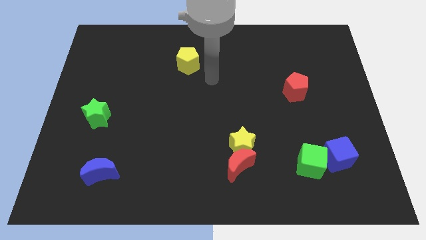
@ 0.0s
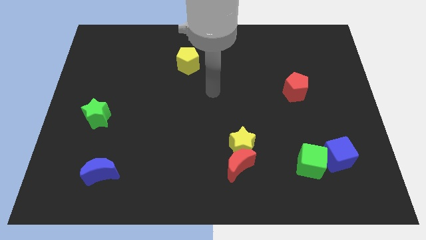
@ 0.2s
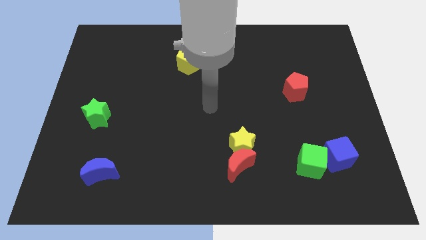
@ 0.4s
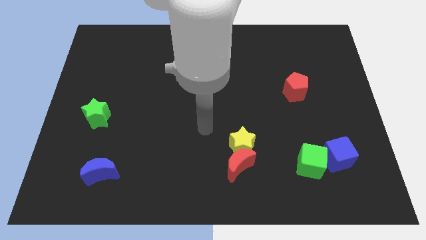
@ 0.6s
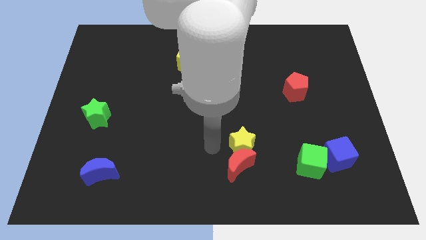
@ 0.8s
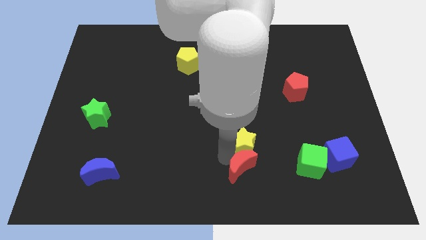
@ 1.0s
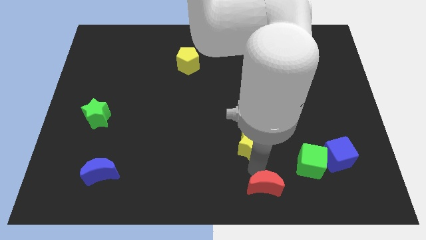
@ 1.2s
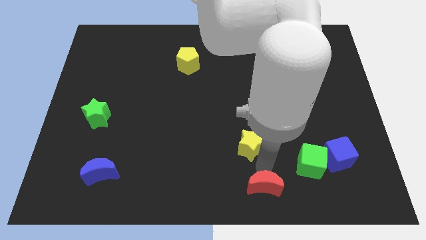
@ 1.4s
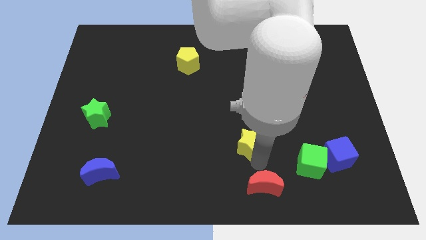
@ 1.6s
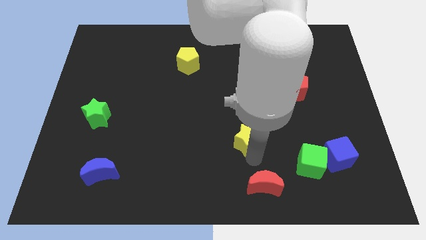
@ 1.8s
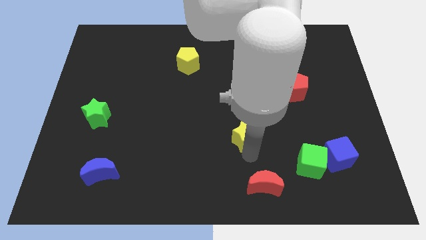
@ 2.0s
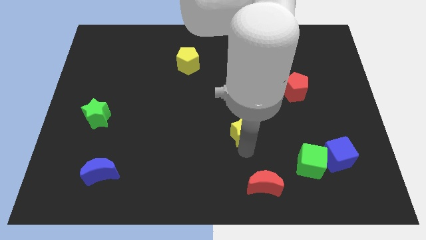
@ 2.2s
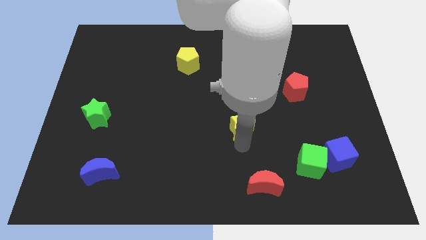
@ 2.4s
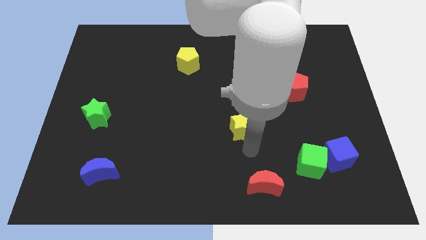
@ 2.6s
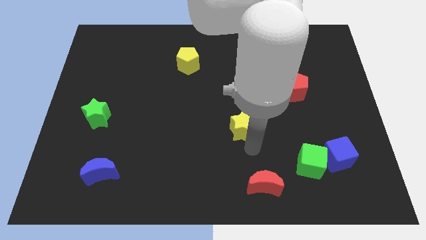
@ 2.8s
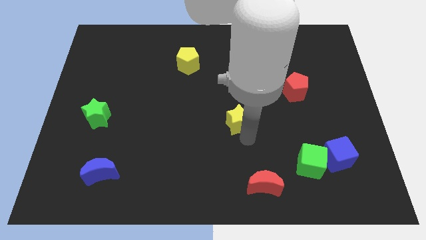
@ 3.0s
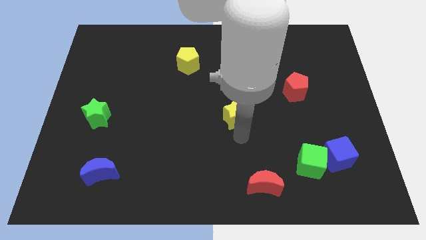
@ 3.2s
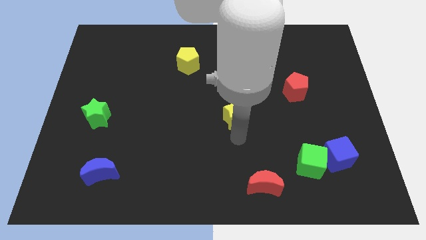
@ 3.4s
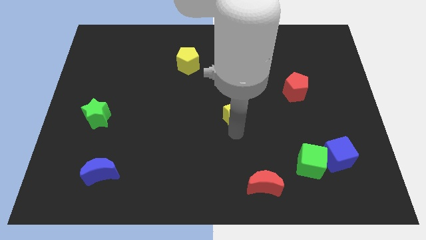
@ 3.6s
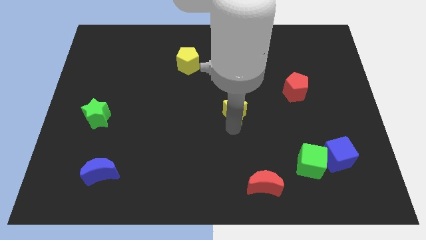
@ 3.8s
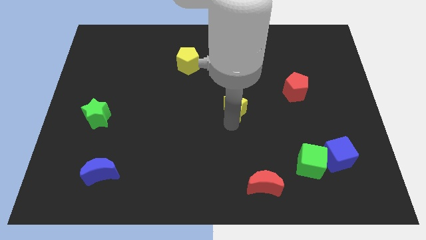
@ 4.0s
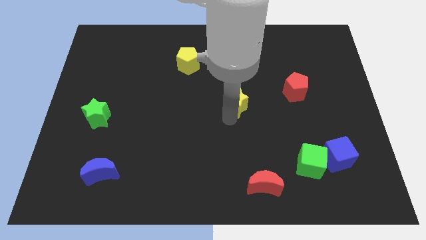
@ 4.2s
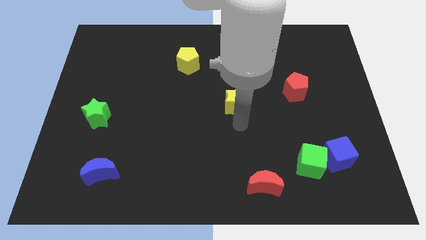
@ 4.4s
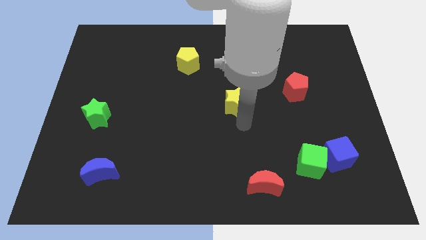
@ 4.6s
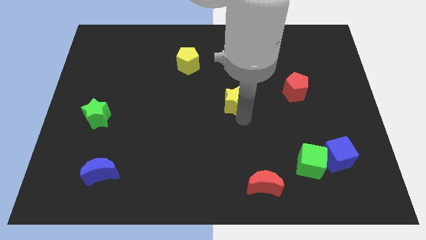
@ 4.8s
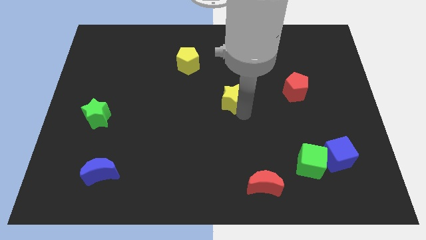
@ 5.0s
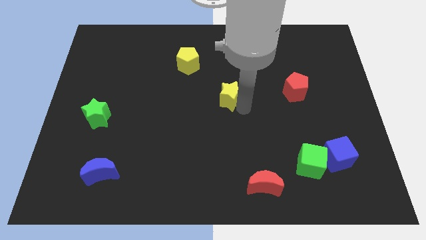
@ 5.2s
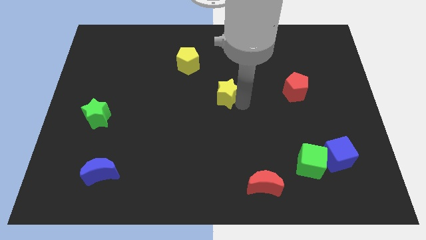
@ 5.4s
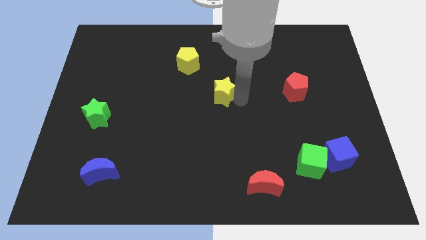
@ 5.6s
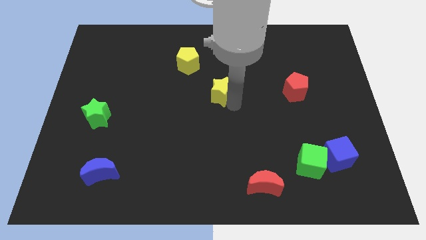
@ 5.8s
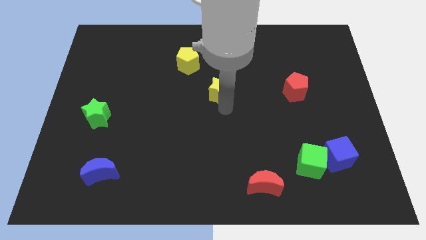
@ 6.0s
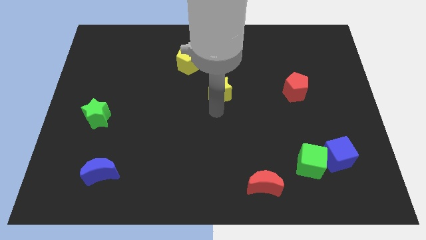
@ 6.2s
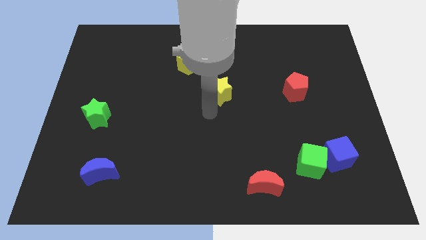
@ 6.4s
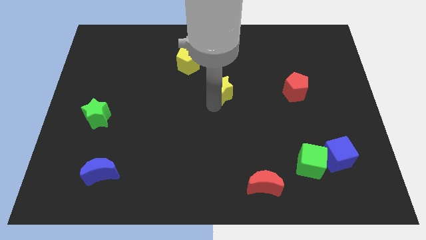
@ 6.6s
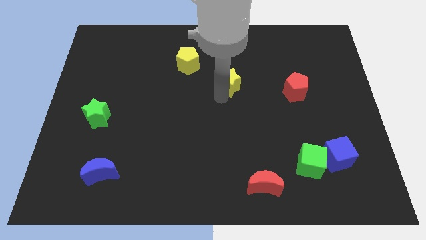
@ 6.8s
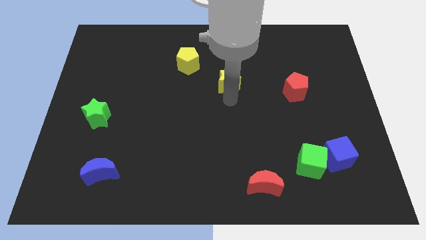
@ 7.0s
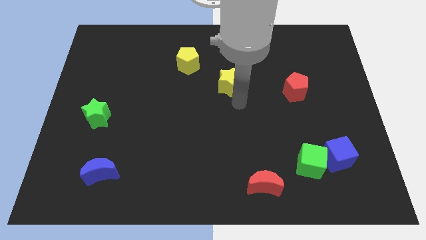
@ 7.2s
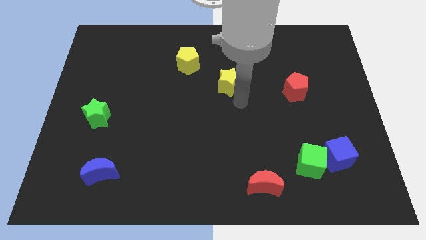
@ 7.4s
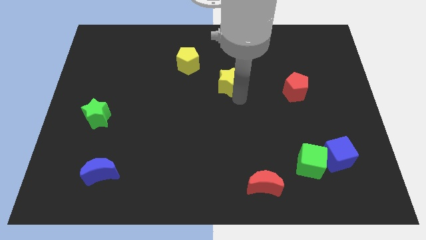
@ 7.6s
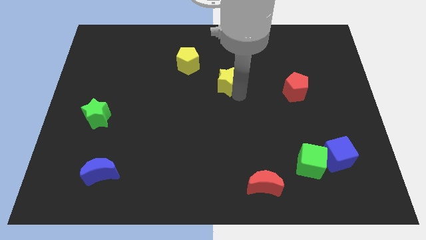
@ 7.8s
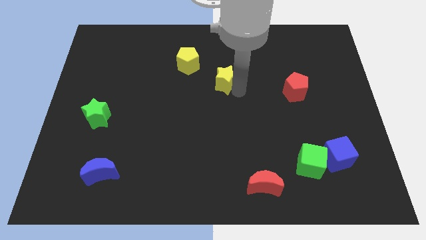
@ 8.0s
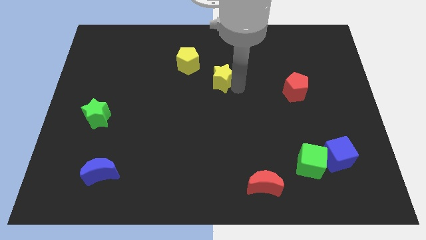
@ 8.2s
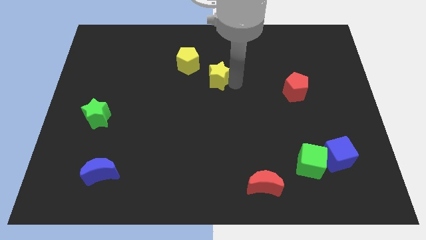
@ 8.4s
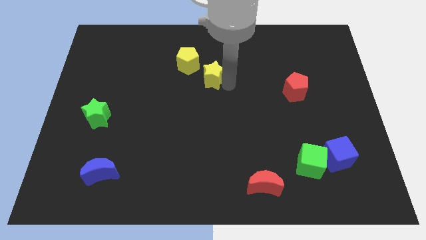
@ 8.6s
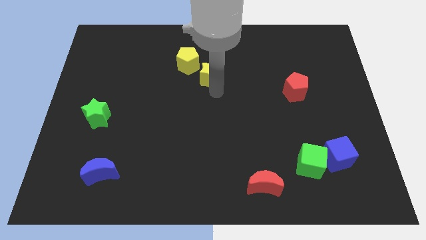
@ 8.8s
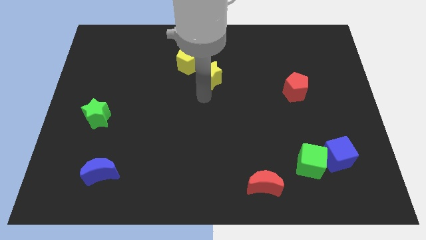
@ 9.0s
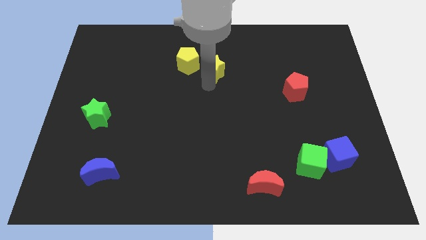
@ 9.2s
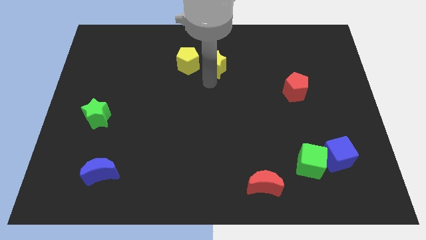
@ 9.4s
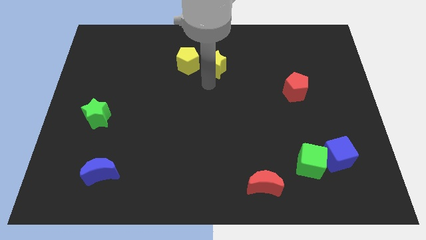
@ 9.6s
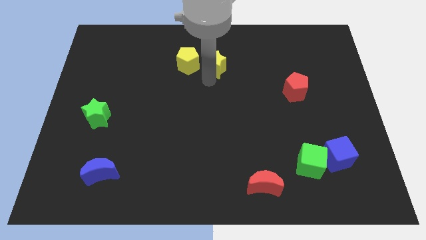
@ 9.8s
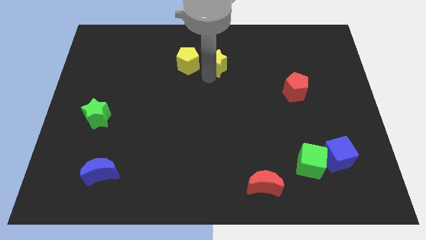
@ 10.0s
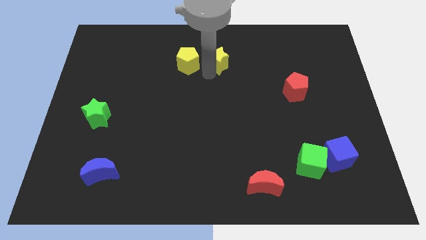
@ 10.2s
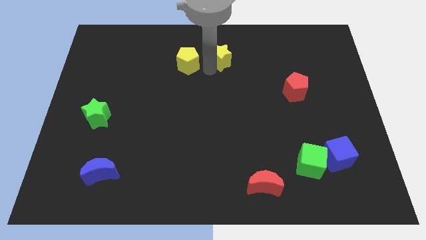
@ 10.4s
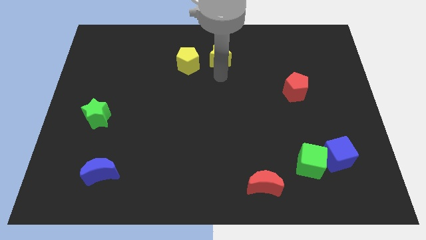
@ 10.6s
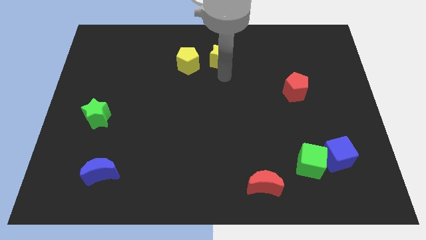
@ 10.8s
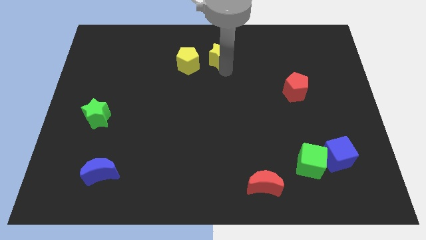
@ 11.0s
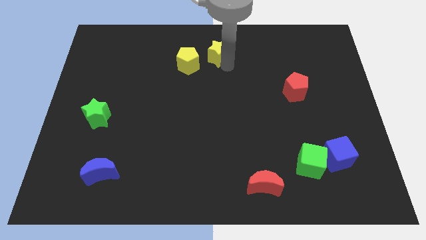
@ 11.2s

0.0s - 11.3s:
slide the yellow star to the towards your base
